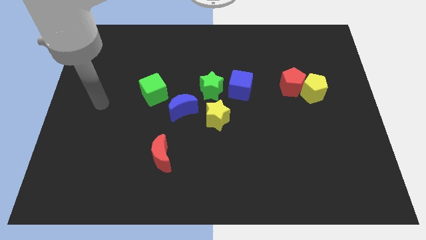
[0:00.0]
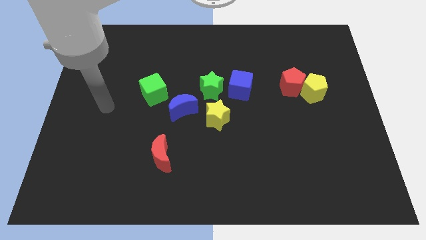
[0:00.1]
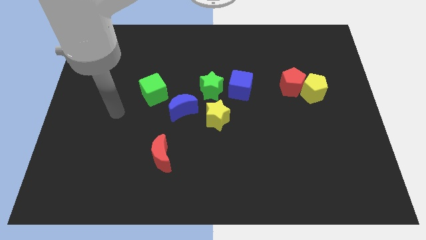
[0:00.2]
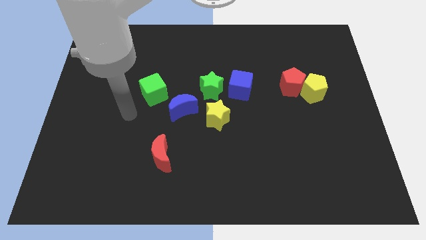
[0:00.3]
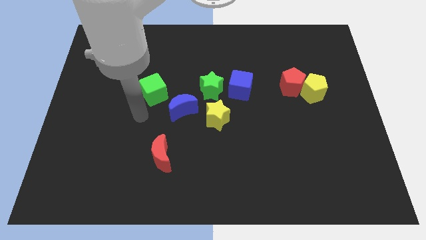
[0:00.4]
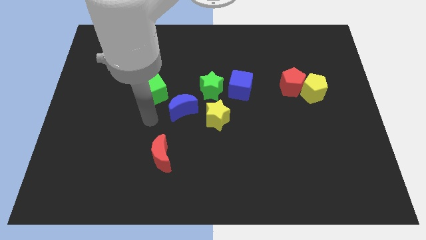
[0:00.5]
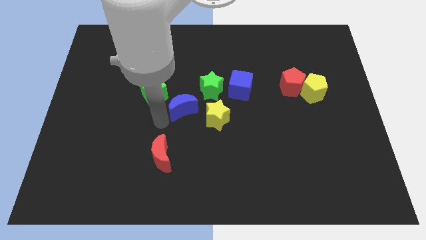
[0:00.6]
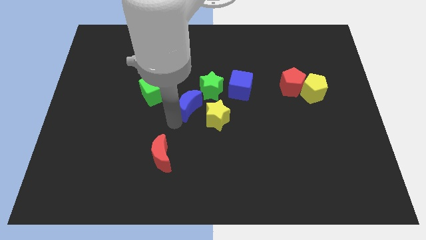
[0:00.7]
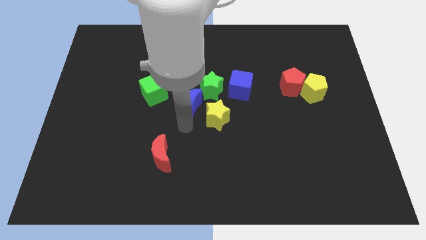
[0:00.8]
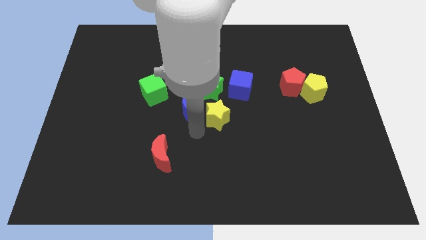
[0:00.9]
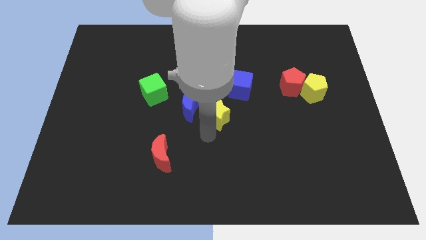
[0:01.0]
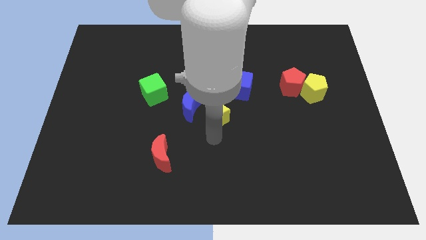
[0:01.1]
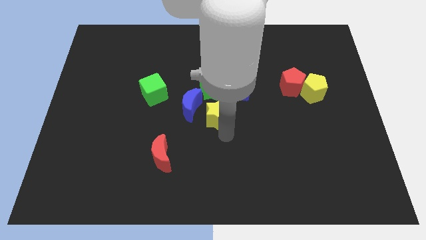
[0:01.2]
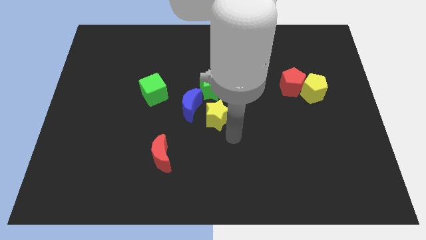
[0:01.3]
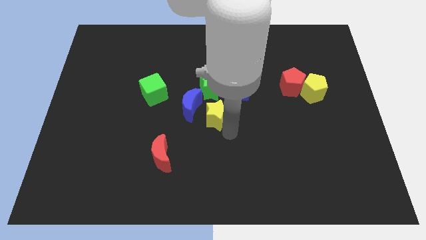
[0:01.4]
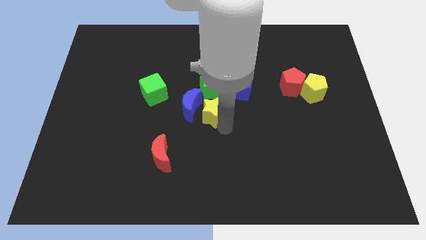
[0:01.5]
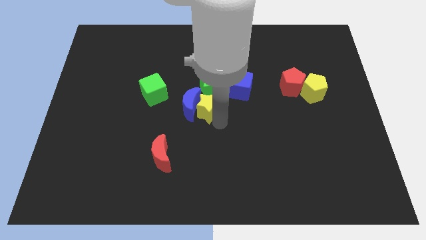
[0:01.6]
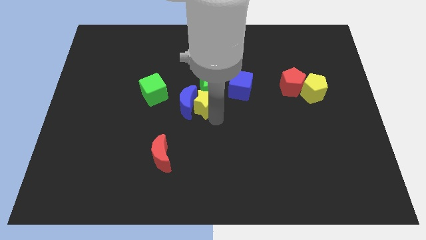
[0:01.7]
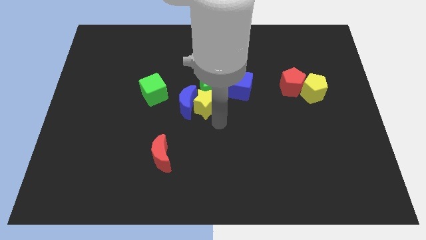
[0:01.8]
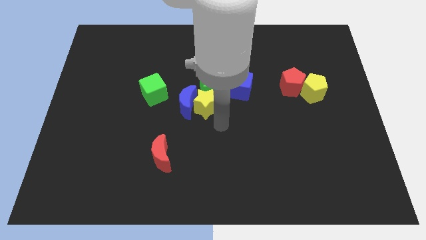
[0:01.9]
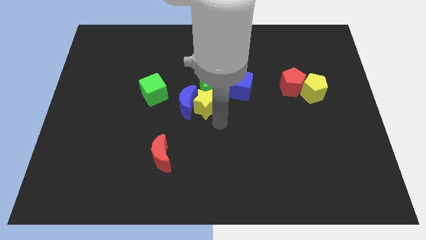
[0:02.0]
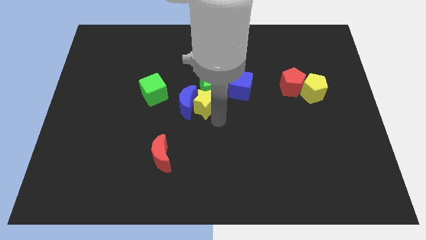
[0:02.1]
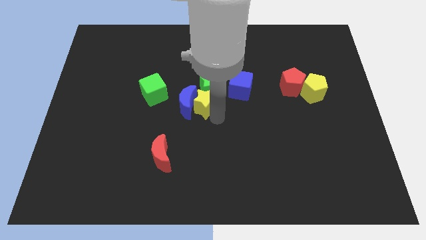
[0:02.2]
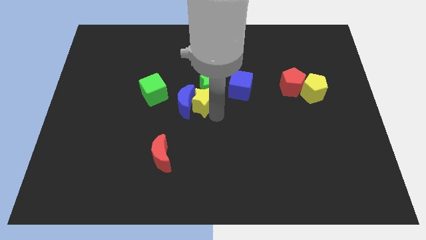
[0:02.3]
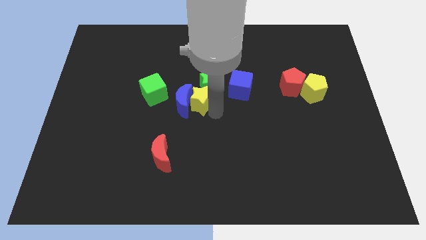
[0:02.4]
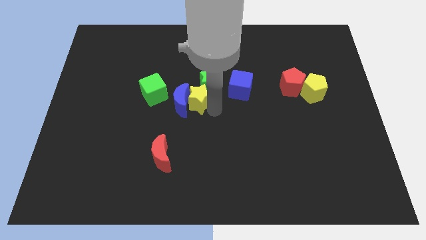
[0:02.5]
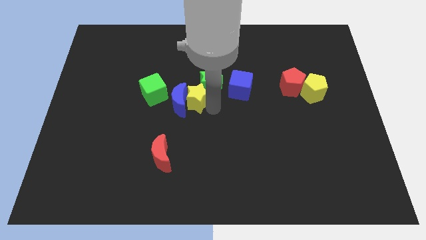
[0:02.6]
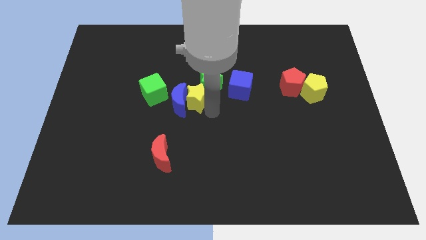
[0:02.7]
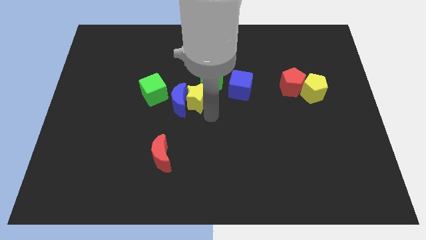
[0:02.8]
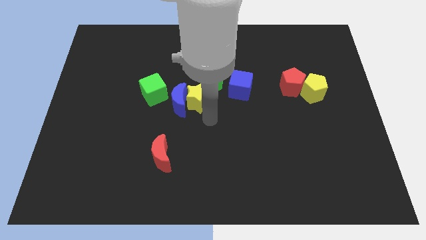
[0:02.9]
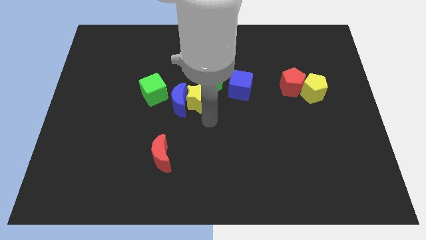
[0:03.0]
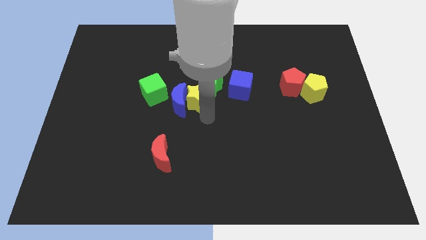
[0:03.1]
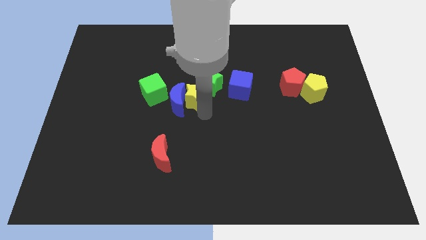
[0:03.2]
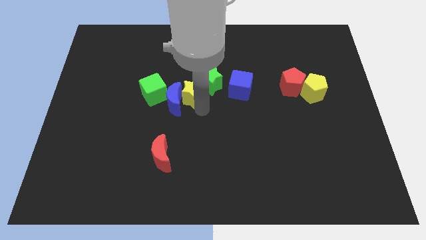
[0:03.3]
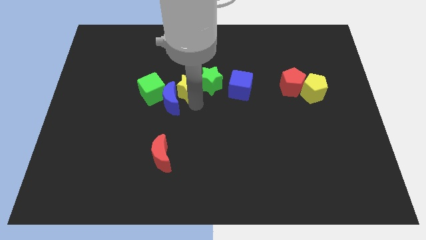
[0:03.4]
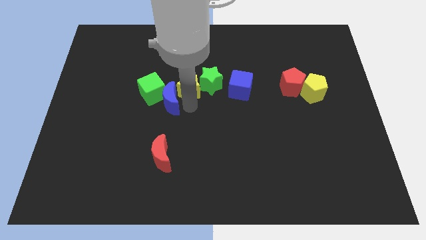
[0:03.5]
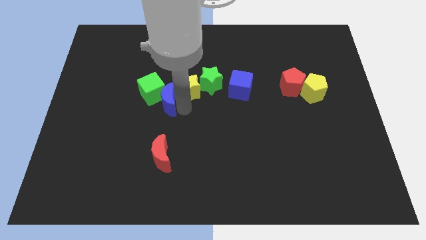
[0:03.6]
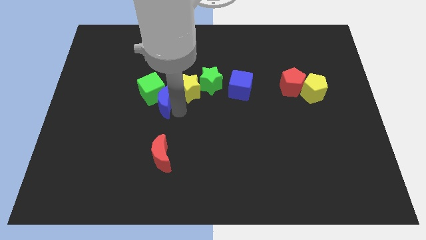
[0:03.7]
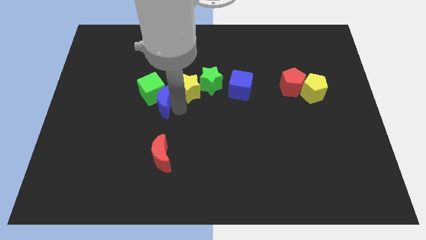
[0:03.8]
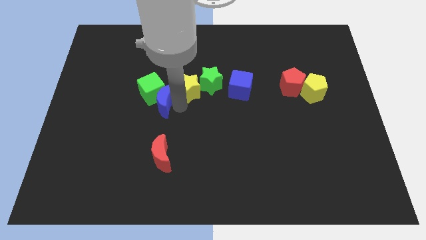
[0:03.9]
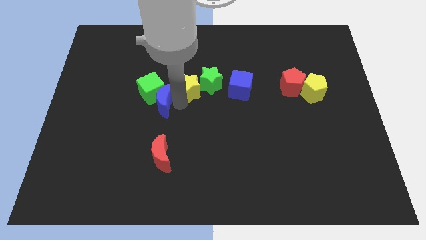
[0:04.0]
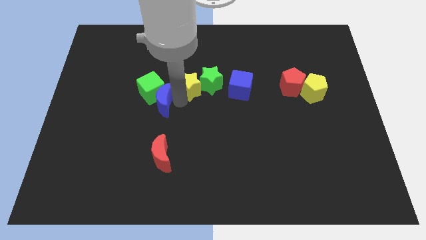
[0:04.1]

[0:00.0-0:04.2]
slide the yellow star upwards somewhat

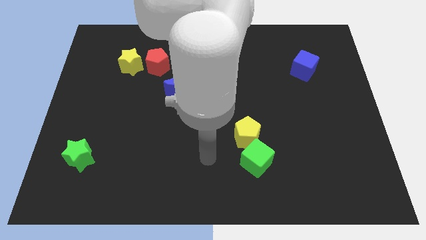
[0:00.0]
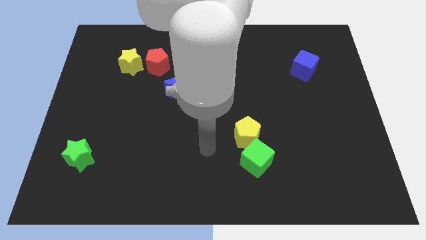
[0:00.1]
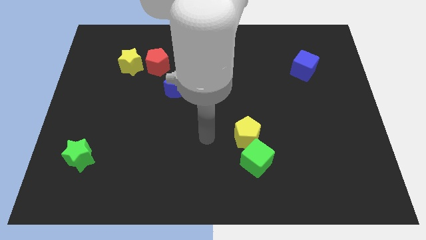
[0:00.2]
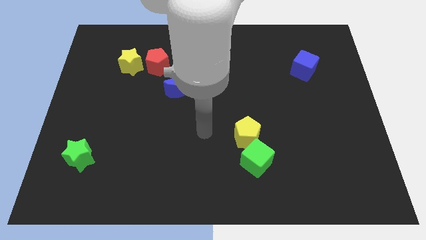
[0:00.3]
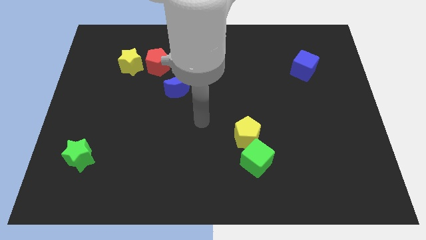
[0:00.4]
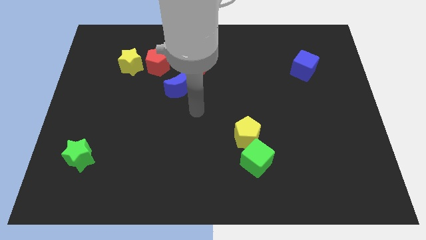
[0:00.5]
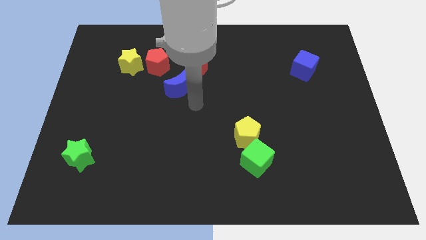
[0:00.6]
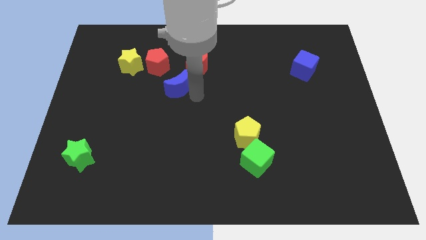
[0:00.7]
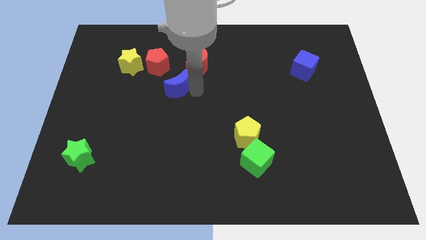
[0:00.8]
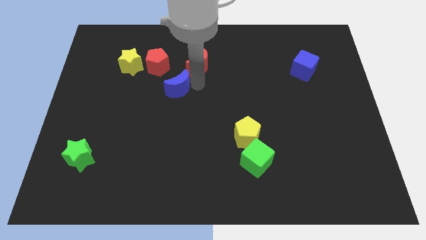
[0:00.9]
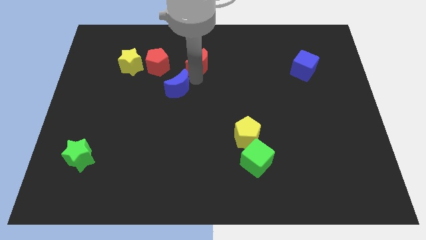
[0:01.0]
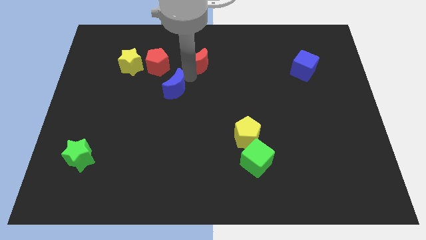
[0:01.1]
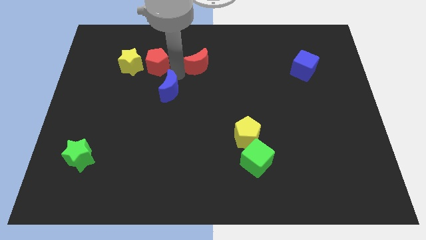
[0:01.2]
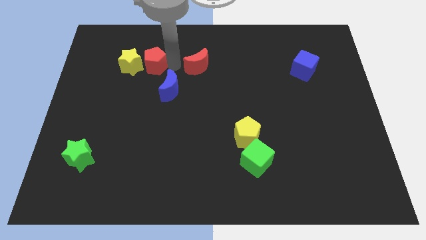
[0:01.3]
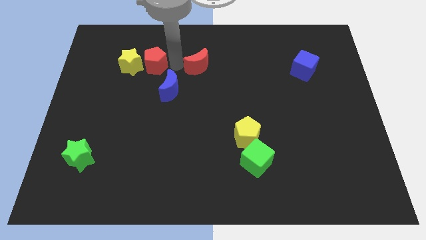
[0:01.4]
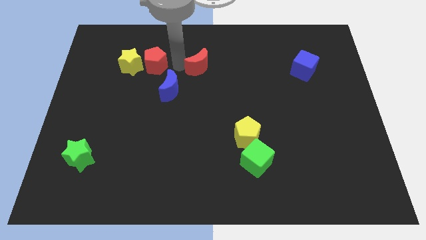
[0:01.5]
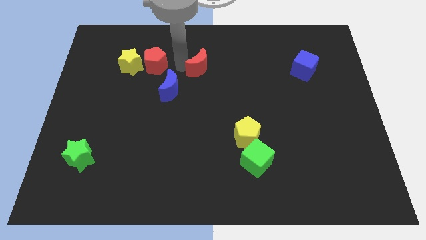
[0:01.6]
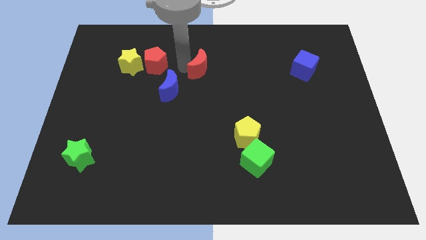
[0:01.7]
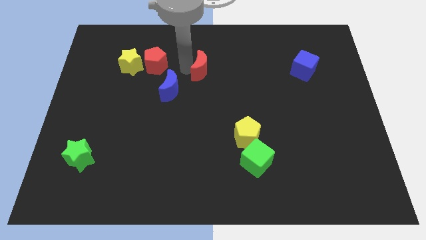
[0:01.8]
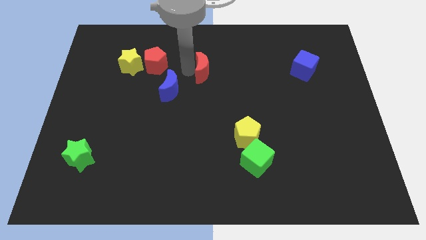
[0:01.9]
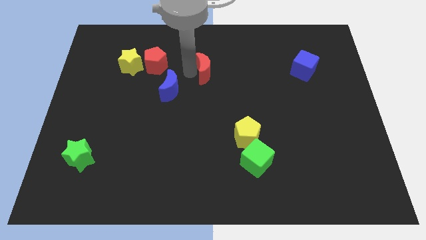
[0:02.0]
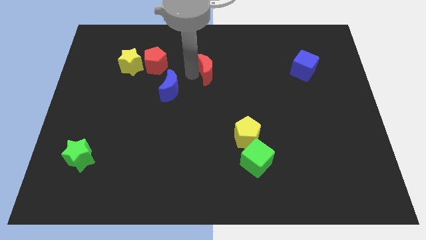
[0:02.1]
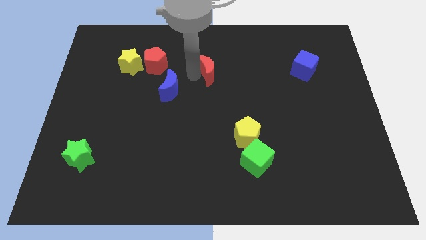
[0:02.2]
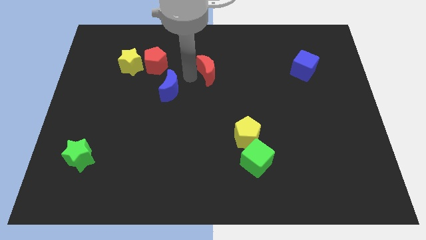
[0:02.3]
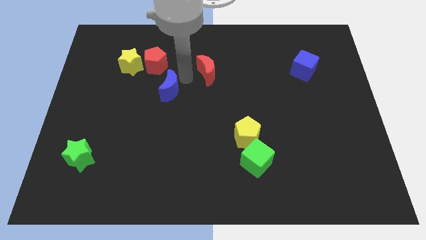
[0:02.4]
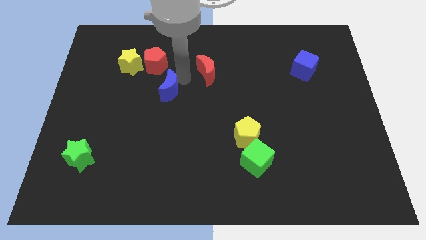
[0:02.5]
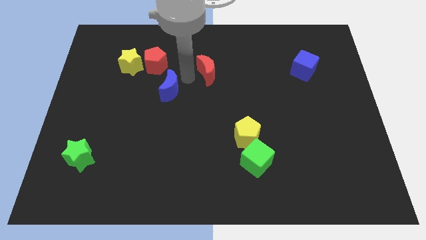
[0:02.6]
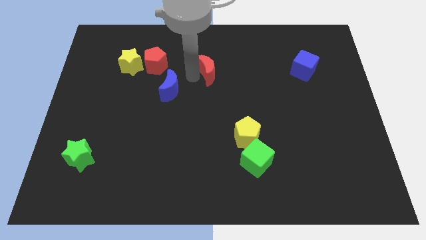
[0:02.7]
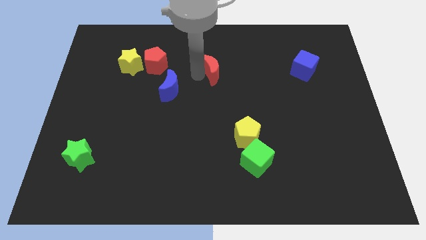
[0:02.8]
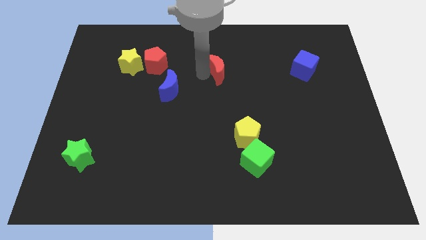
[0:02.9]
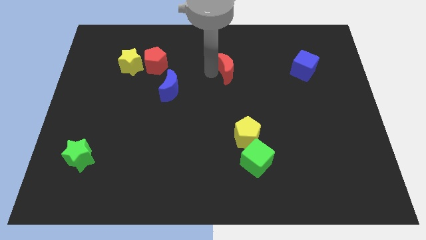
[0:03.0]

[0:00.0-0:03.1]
slightly move the red moon to the right

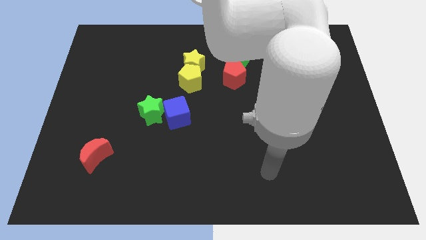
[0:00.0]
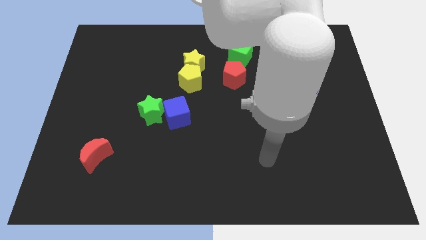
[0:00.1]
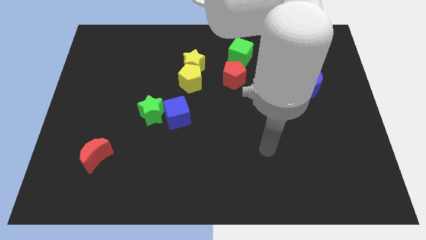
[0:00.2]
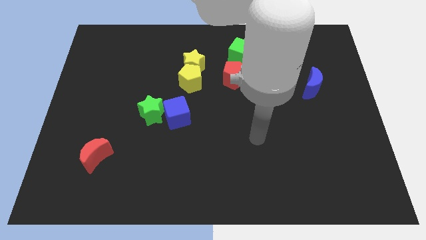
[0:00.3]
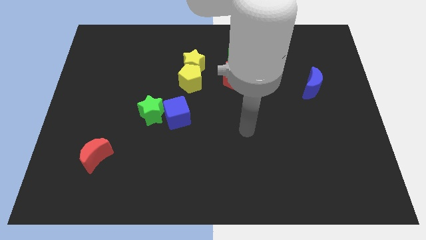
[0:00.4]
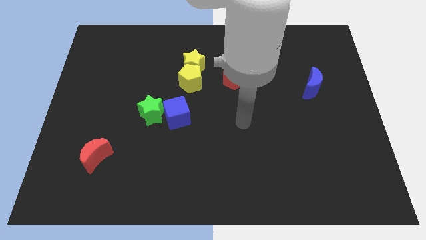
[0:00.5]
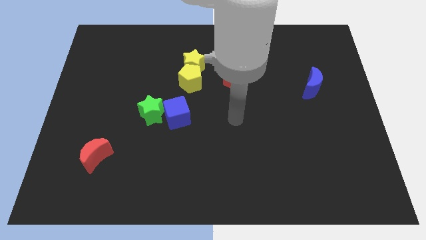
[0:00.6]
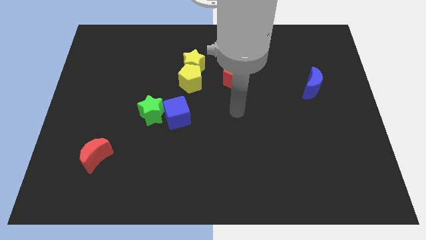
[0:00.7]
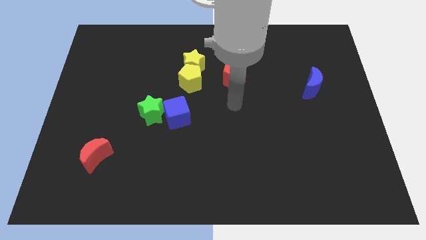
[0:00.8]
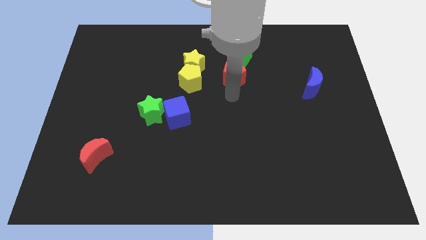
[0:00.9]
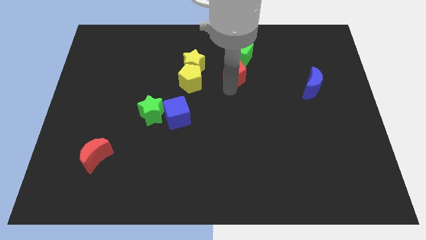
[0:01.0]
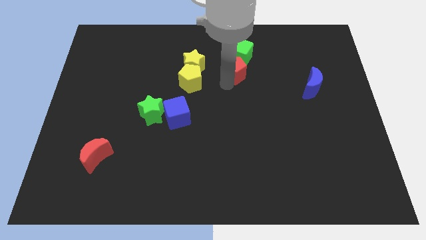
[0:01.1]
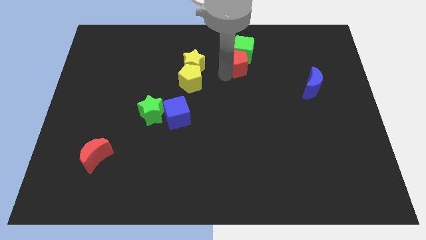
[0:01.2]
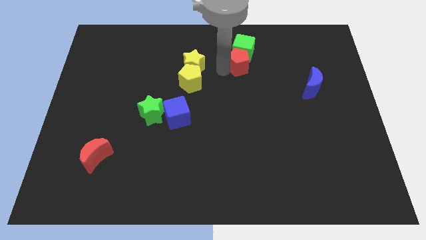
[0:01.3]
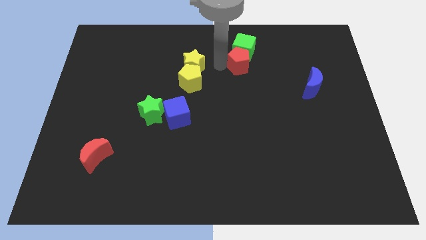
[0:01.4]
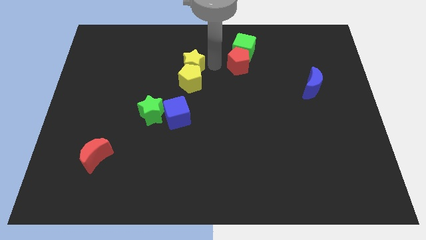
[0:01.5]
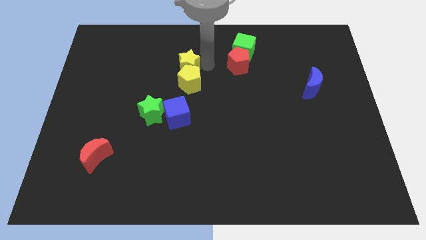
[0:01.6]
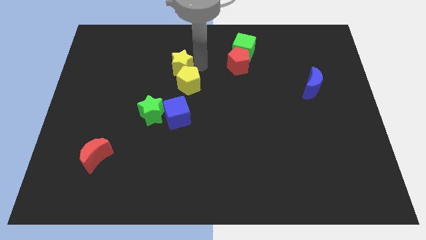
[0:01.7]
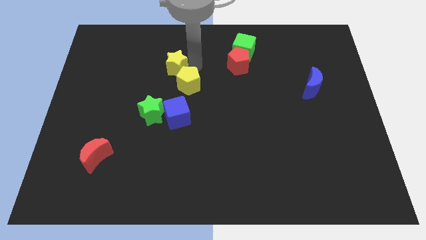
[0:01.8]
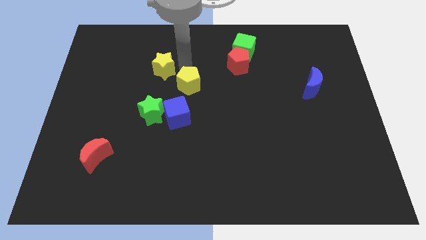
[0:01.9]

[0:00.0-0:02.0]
push the yellow star somewhat to the left
